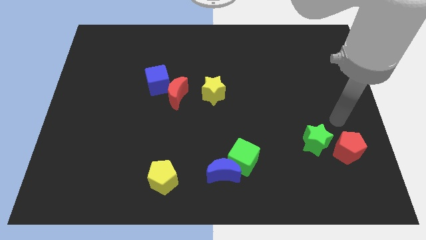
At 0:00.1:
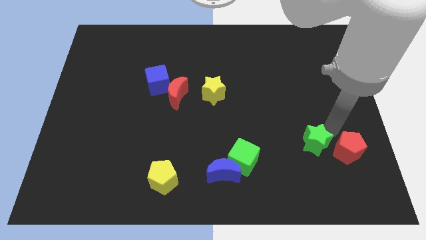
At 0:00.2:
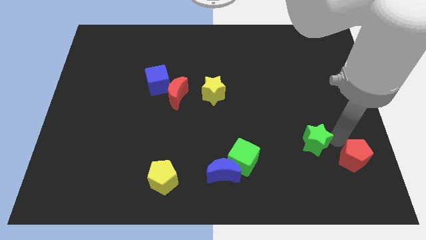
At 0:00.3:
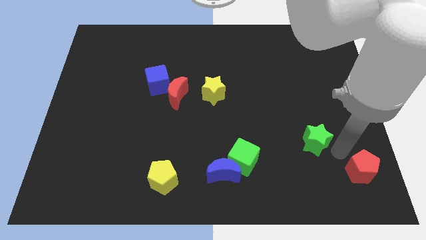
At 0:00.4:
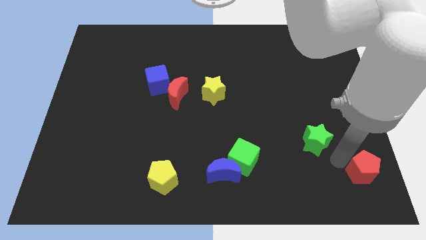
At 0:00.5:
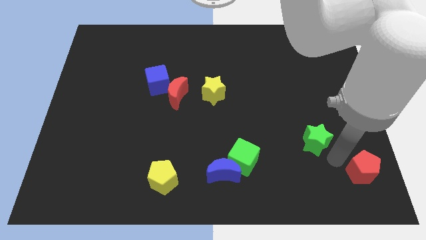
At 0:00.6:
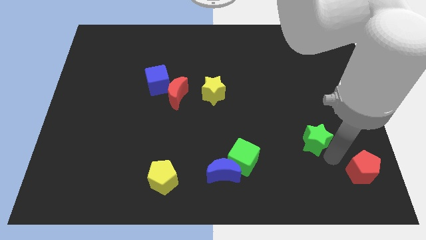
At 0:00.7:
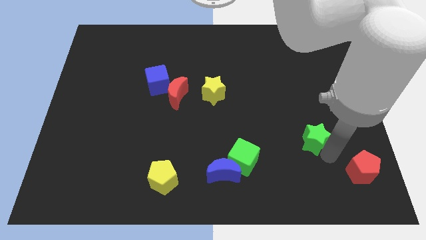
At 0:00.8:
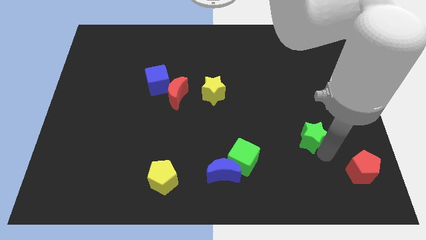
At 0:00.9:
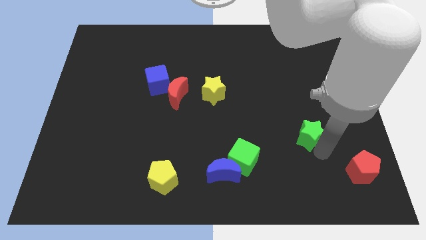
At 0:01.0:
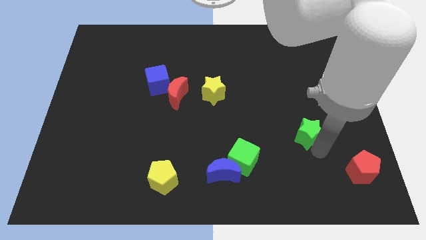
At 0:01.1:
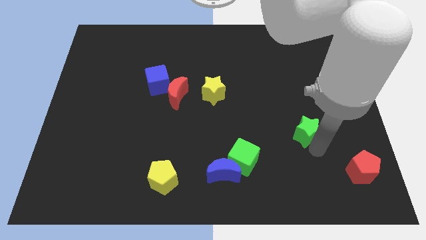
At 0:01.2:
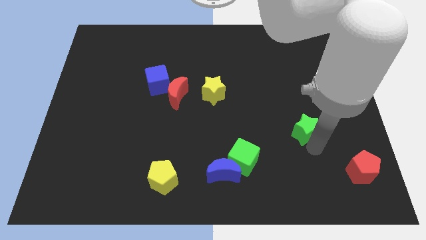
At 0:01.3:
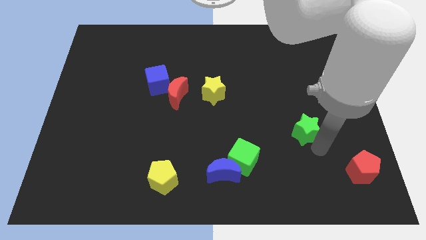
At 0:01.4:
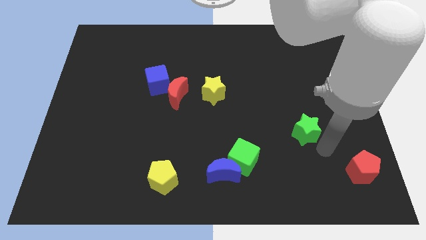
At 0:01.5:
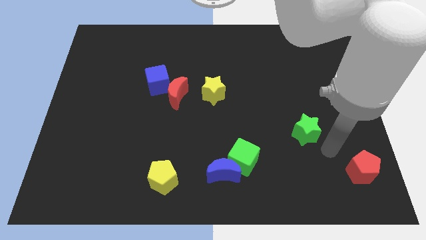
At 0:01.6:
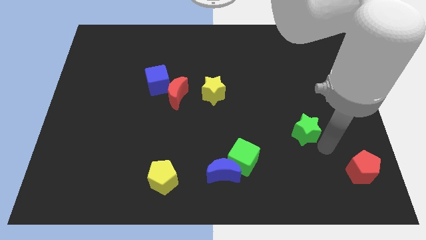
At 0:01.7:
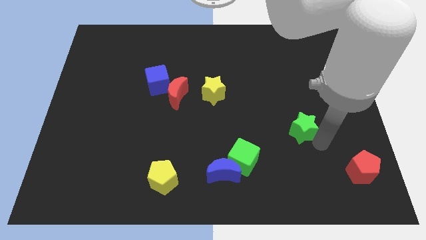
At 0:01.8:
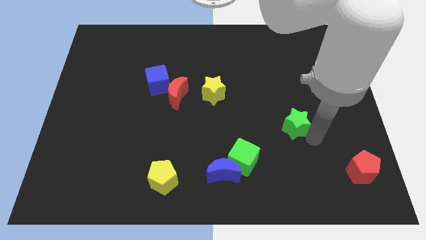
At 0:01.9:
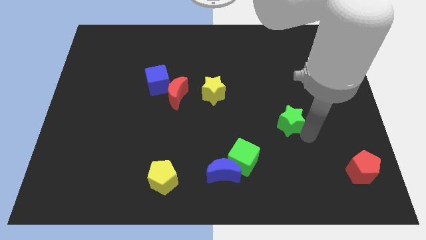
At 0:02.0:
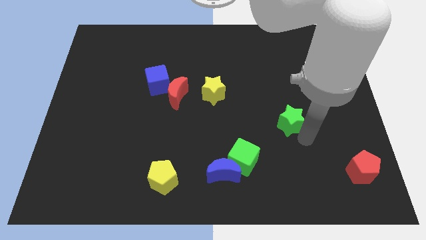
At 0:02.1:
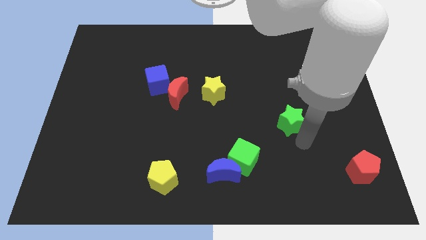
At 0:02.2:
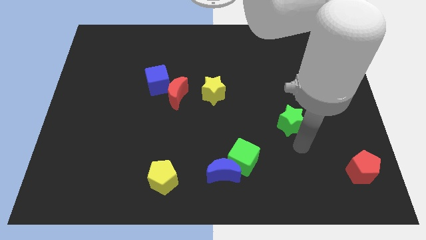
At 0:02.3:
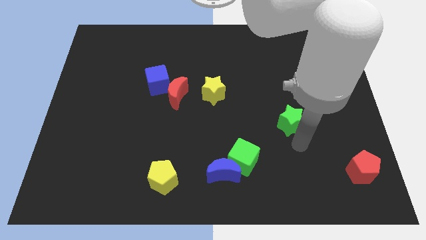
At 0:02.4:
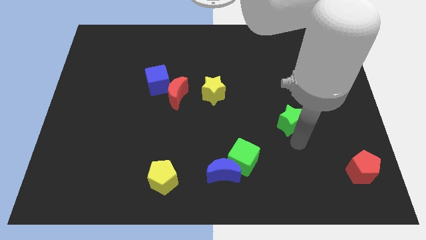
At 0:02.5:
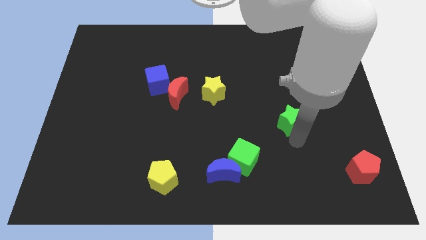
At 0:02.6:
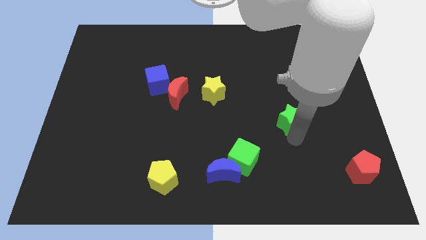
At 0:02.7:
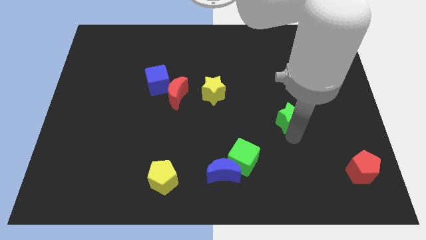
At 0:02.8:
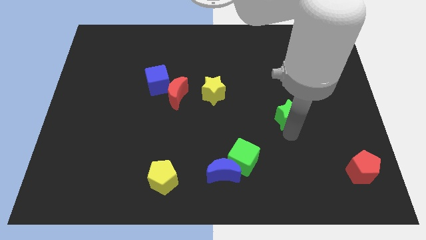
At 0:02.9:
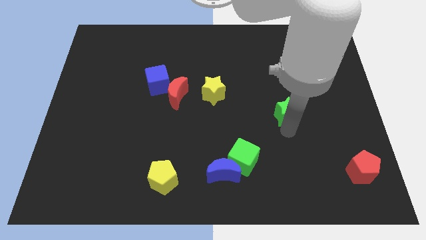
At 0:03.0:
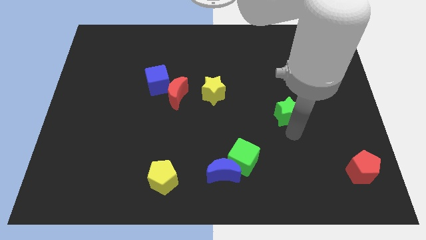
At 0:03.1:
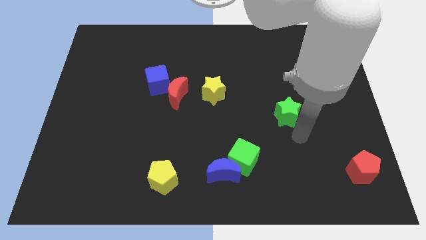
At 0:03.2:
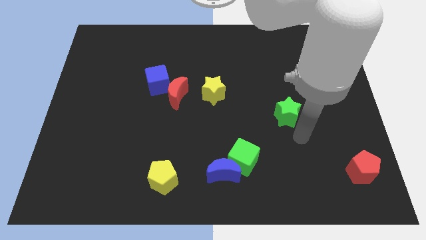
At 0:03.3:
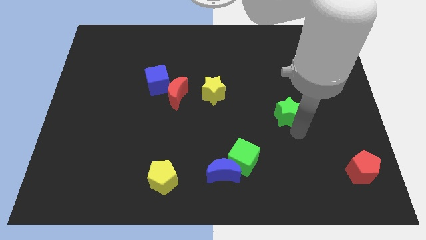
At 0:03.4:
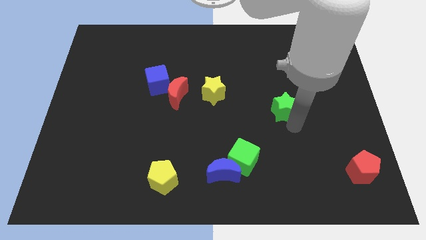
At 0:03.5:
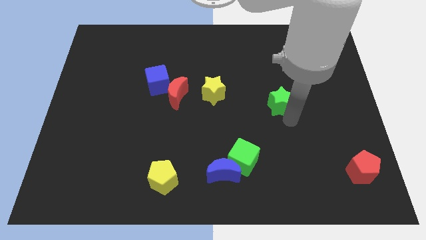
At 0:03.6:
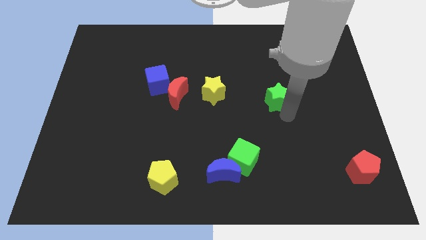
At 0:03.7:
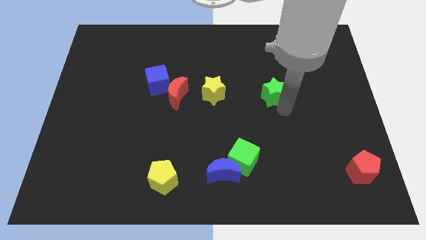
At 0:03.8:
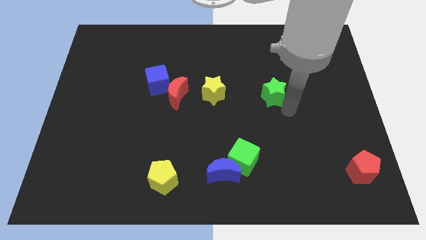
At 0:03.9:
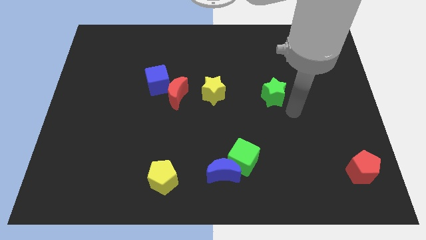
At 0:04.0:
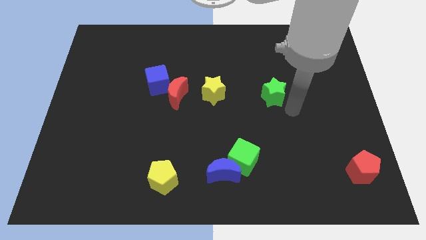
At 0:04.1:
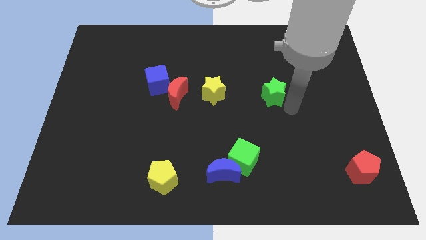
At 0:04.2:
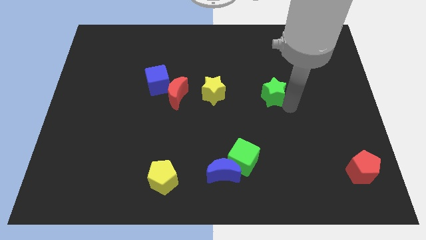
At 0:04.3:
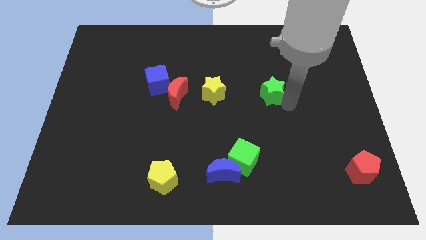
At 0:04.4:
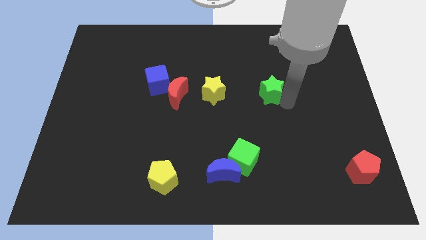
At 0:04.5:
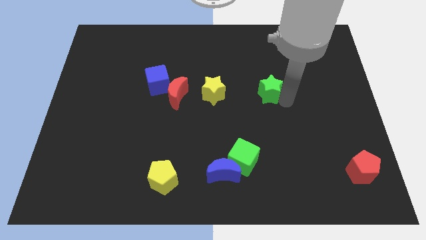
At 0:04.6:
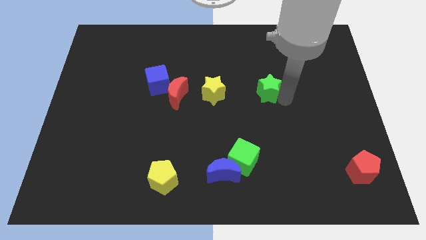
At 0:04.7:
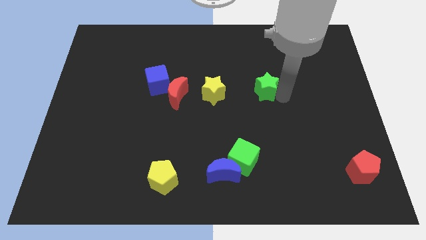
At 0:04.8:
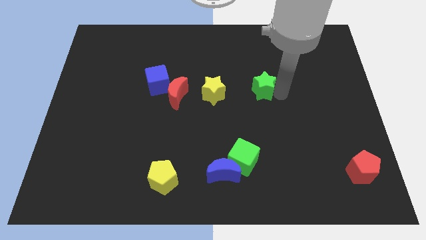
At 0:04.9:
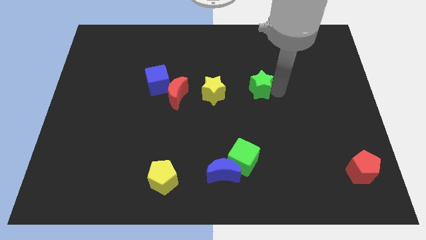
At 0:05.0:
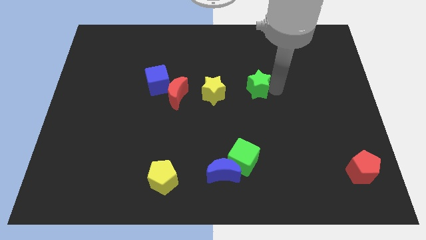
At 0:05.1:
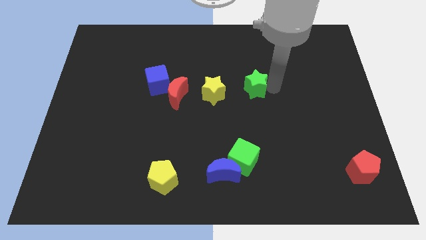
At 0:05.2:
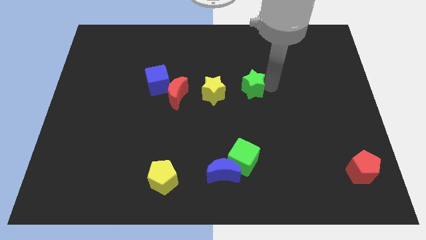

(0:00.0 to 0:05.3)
slide the green star upwards and left

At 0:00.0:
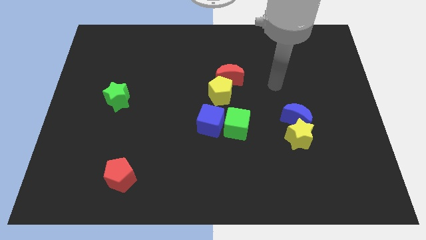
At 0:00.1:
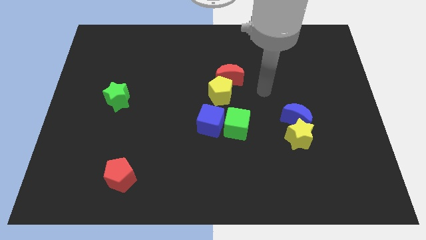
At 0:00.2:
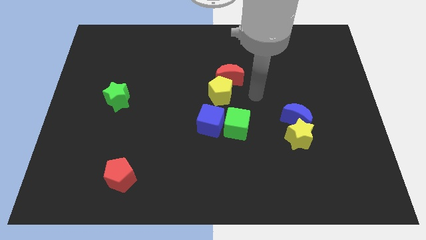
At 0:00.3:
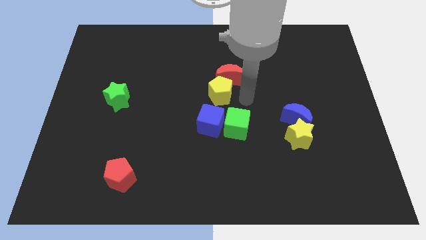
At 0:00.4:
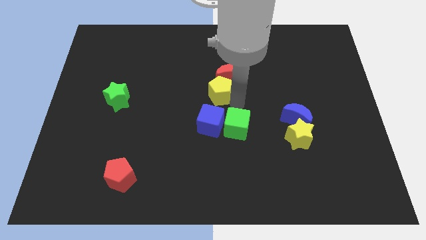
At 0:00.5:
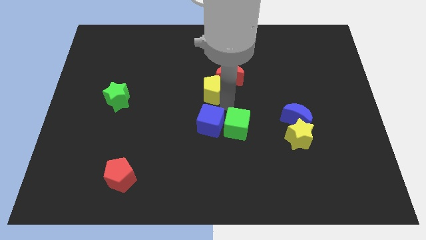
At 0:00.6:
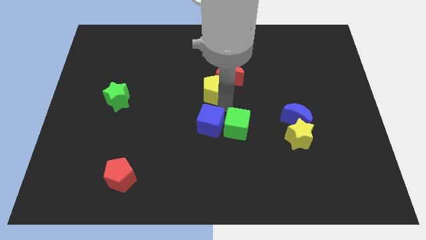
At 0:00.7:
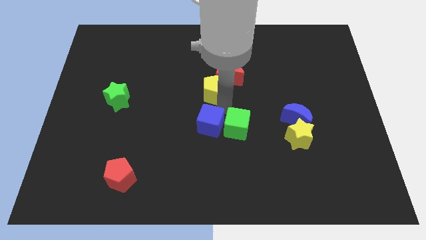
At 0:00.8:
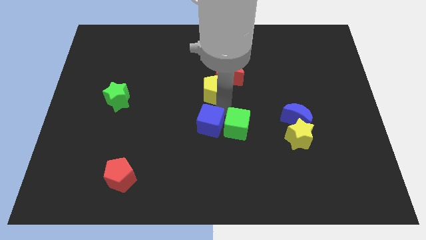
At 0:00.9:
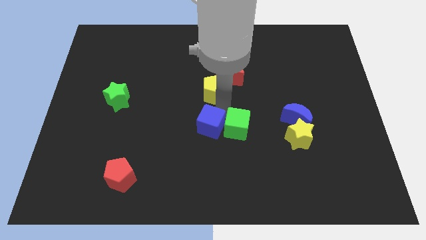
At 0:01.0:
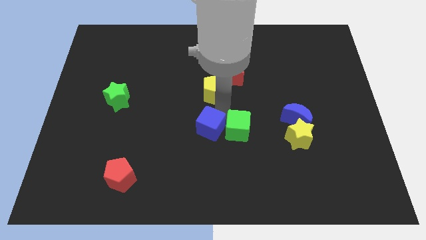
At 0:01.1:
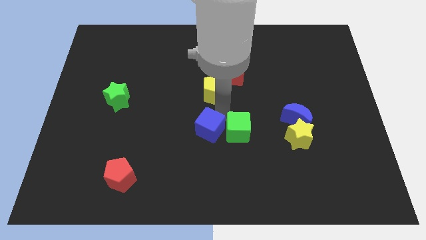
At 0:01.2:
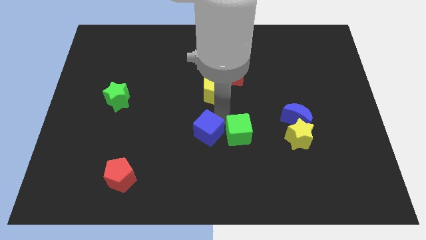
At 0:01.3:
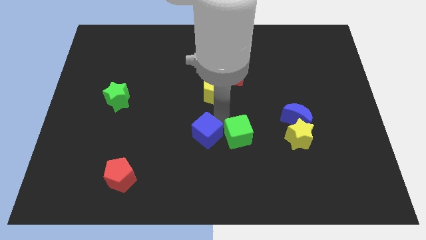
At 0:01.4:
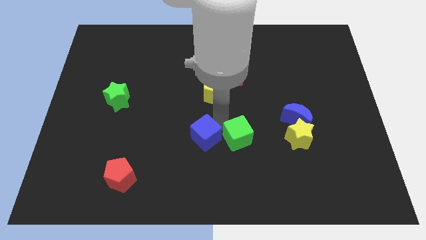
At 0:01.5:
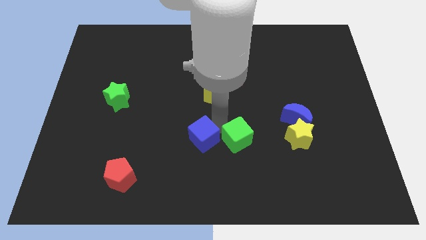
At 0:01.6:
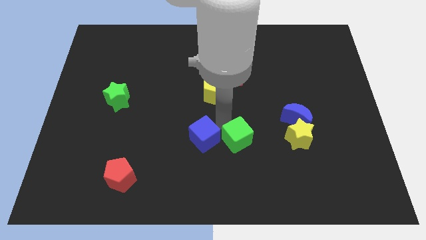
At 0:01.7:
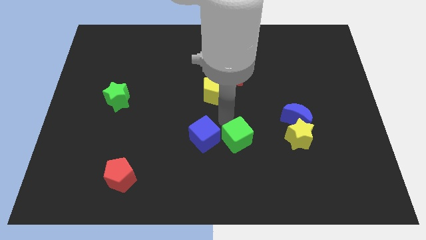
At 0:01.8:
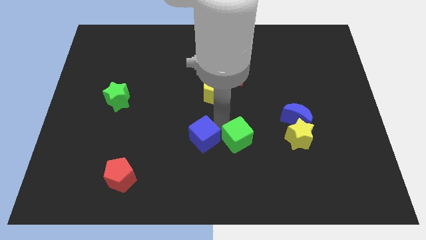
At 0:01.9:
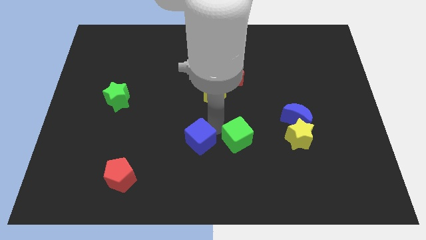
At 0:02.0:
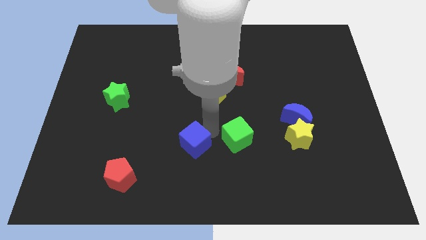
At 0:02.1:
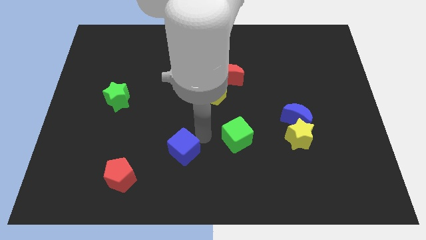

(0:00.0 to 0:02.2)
slide the blue cube a bit diagonally downwards and left

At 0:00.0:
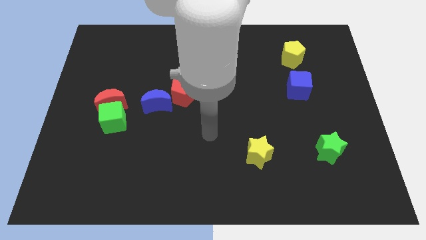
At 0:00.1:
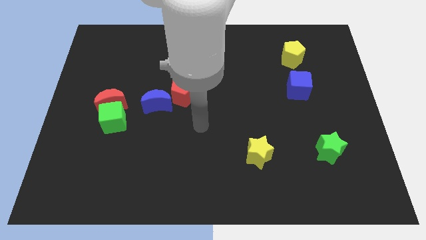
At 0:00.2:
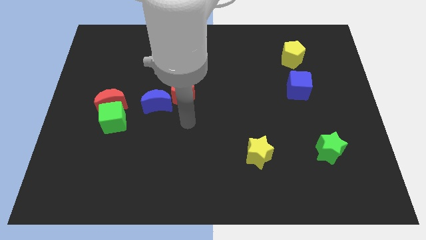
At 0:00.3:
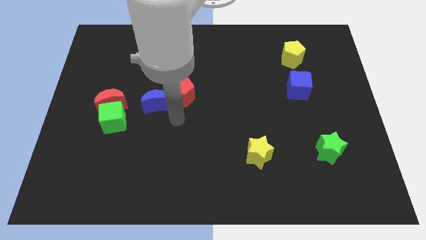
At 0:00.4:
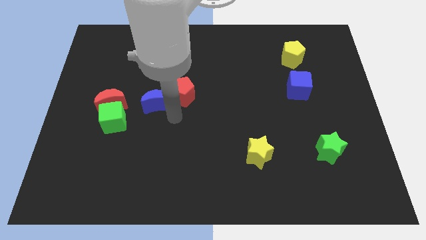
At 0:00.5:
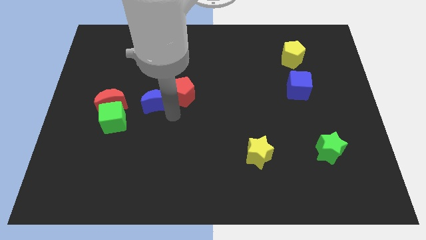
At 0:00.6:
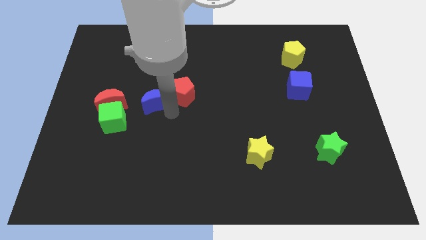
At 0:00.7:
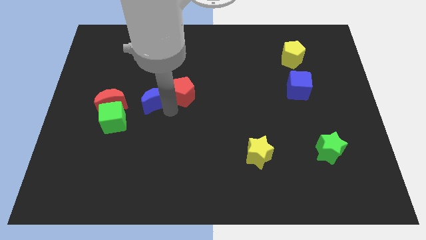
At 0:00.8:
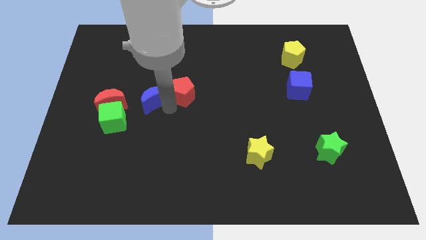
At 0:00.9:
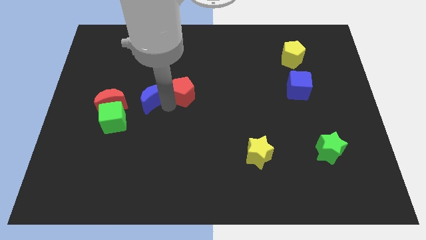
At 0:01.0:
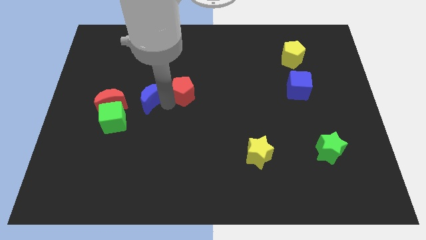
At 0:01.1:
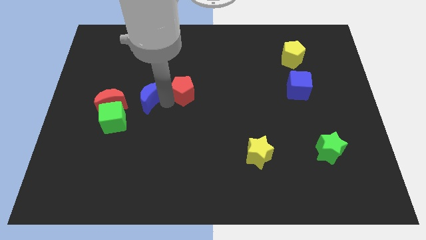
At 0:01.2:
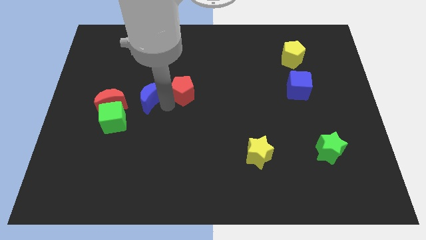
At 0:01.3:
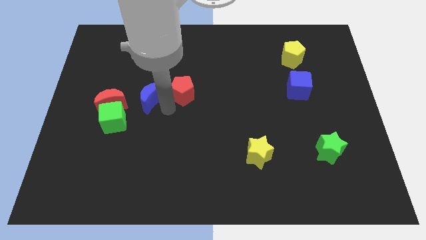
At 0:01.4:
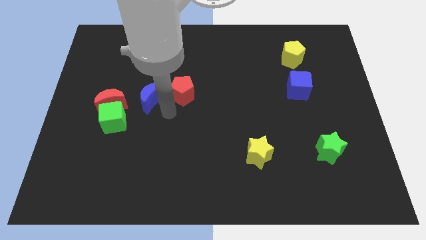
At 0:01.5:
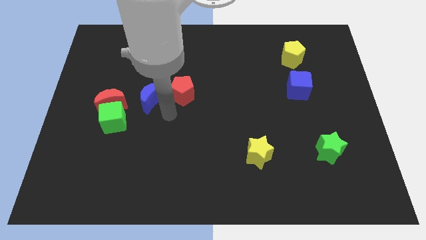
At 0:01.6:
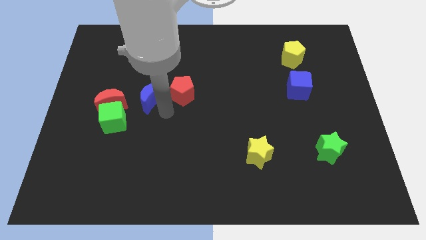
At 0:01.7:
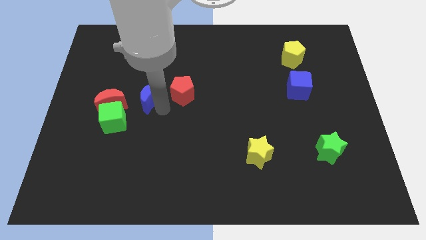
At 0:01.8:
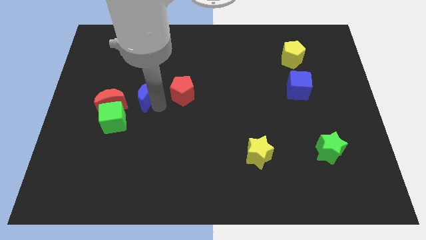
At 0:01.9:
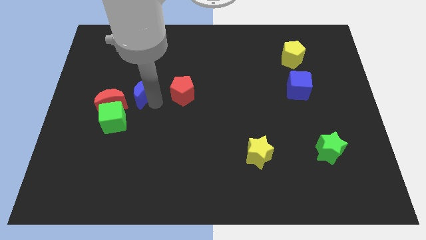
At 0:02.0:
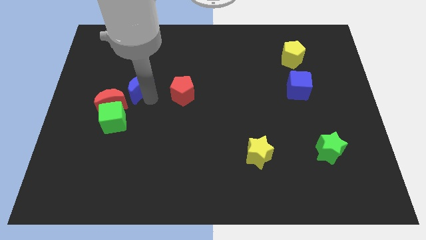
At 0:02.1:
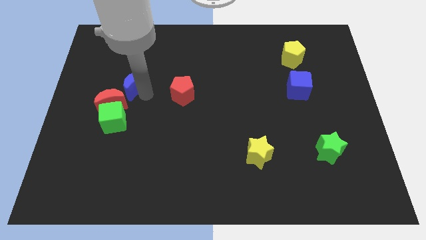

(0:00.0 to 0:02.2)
push the blue moon a little diagonally upwards and to the left
